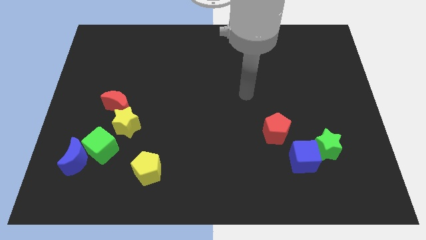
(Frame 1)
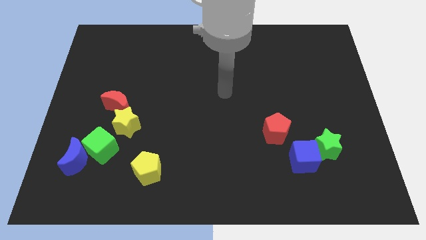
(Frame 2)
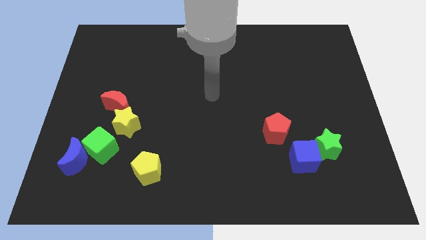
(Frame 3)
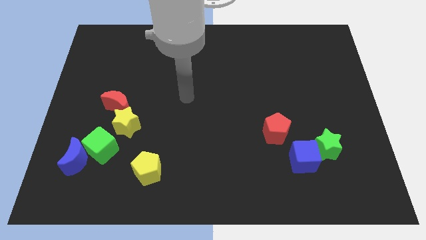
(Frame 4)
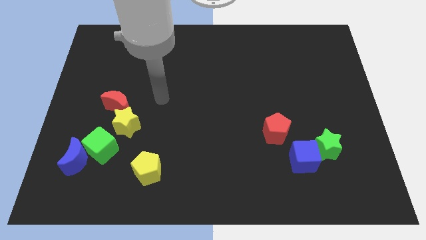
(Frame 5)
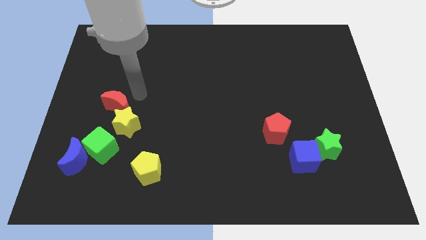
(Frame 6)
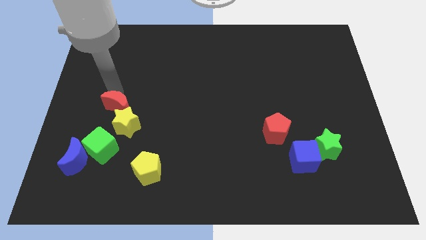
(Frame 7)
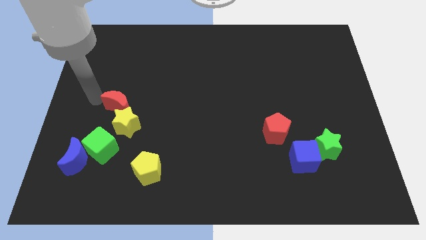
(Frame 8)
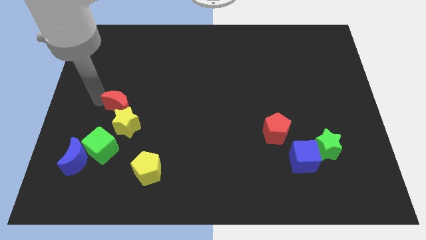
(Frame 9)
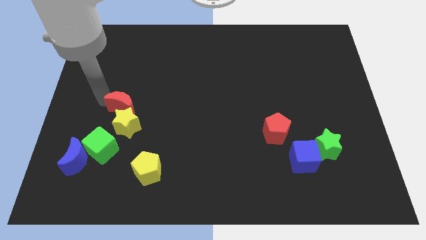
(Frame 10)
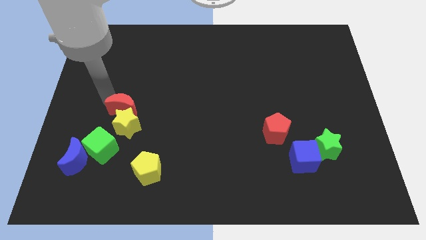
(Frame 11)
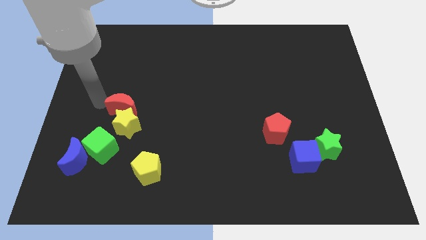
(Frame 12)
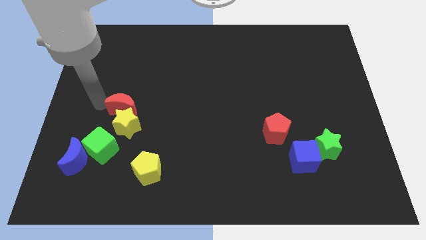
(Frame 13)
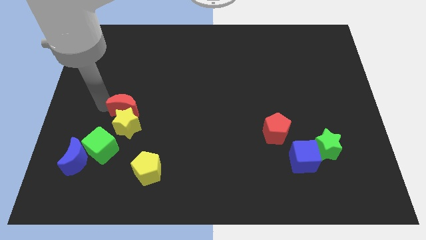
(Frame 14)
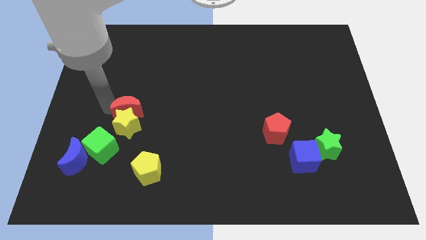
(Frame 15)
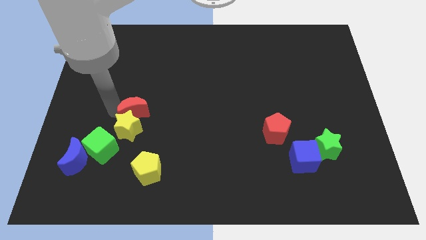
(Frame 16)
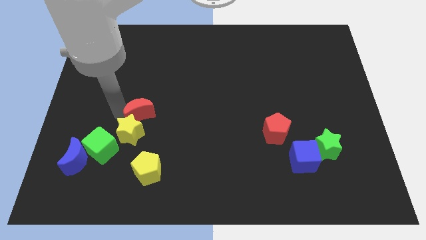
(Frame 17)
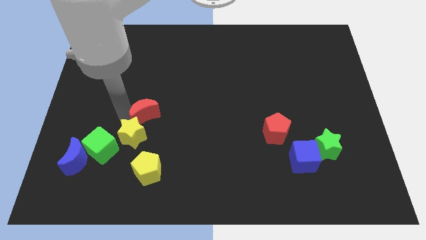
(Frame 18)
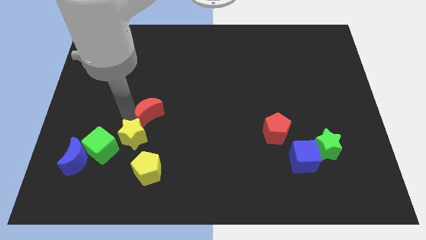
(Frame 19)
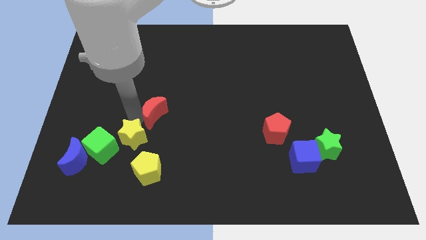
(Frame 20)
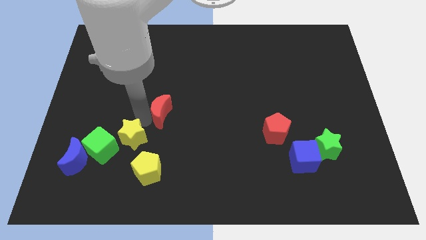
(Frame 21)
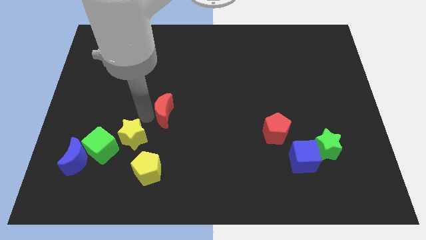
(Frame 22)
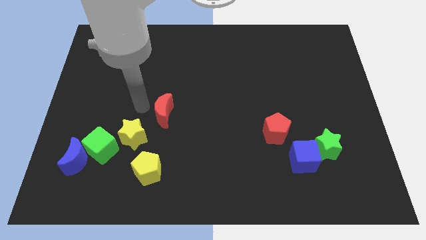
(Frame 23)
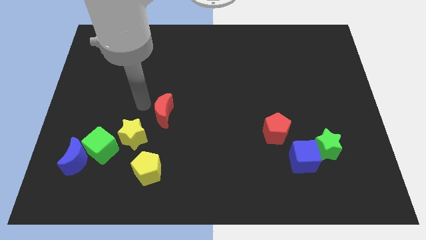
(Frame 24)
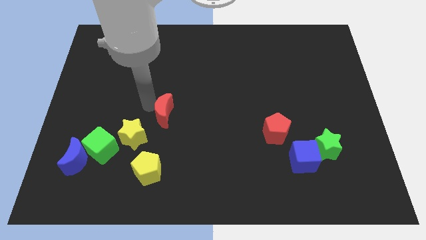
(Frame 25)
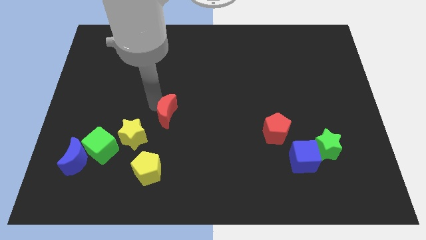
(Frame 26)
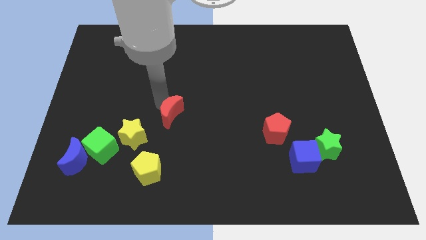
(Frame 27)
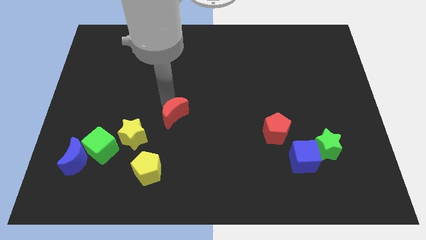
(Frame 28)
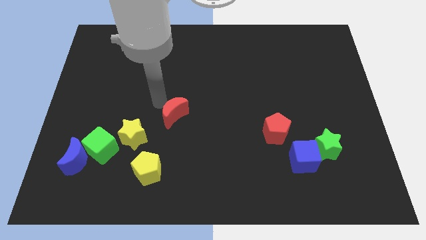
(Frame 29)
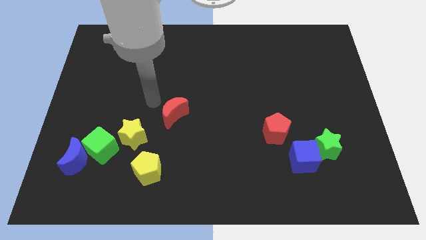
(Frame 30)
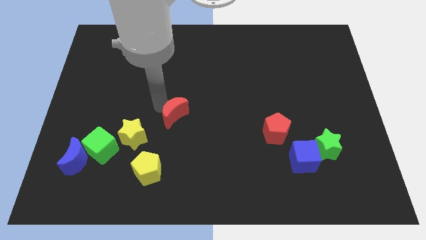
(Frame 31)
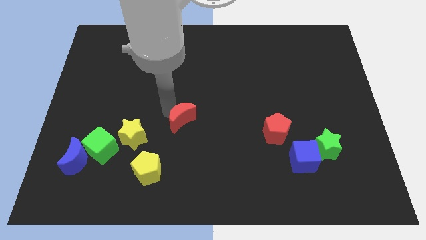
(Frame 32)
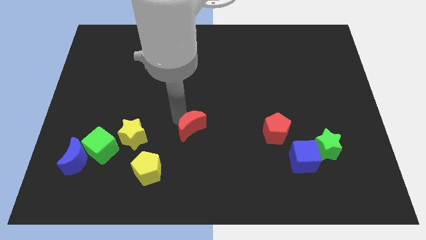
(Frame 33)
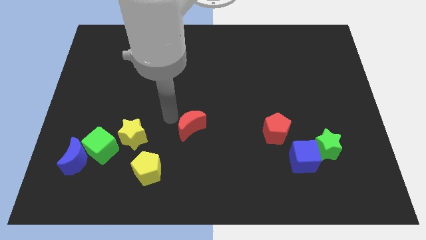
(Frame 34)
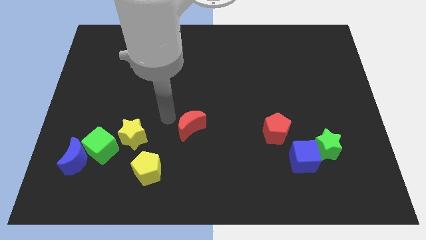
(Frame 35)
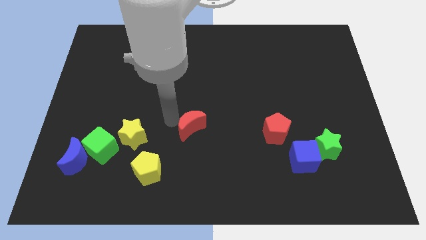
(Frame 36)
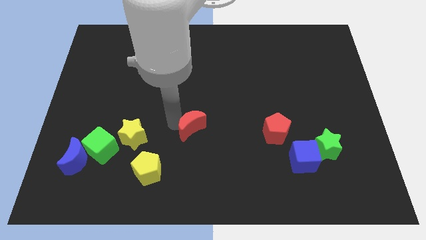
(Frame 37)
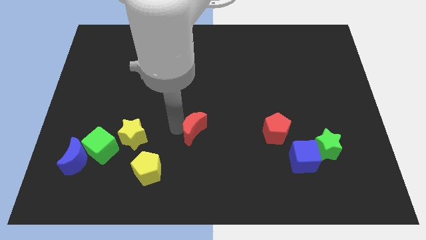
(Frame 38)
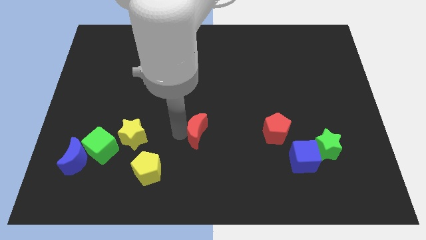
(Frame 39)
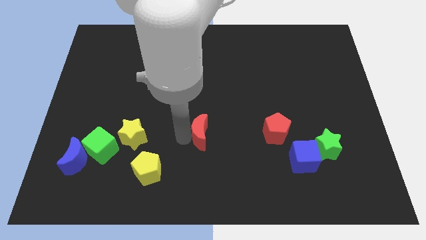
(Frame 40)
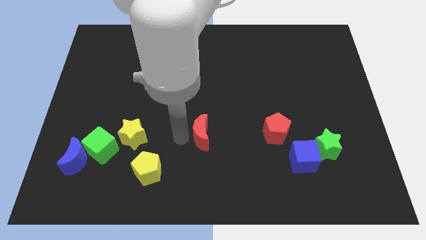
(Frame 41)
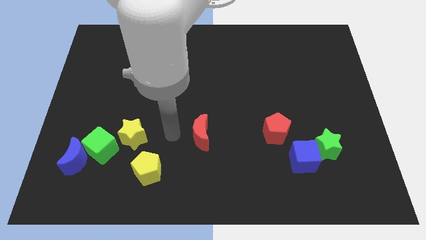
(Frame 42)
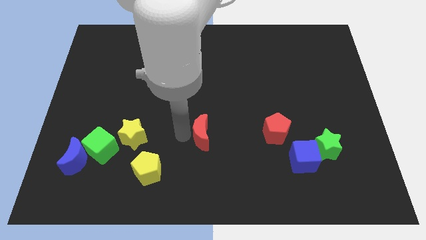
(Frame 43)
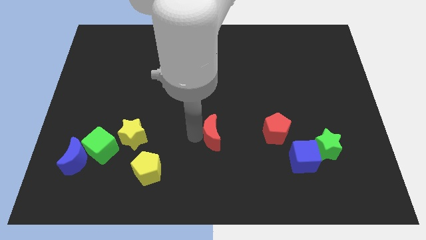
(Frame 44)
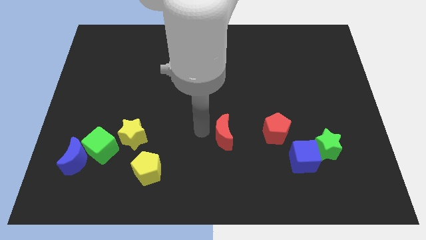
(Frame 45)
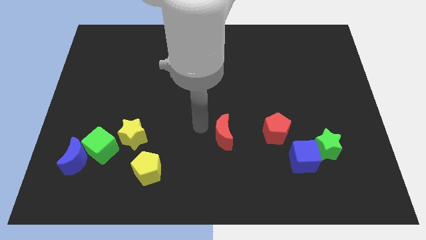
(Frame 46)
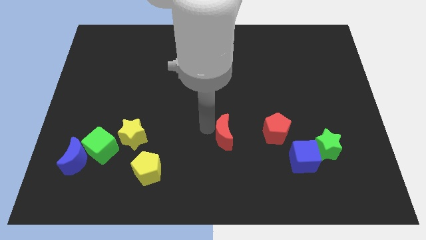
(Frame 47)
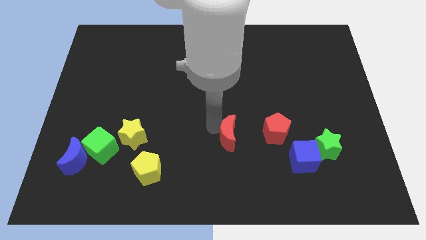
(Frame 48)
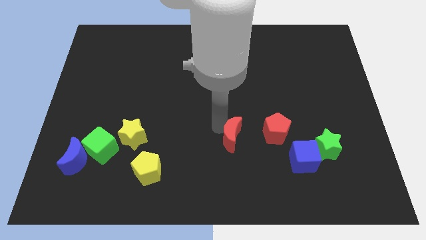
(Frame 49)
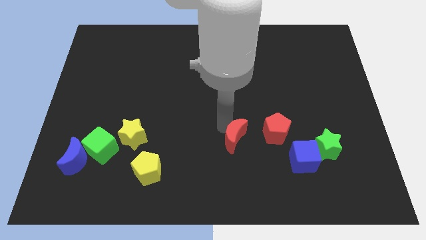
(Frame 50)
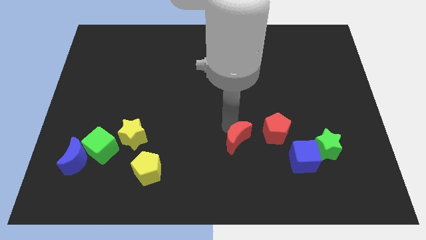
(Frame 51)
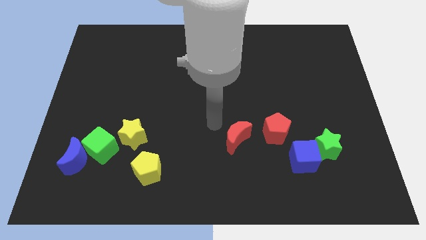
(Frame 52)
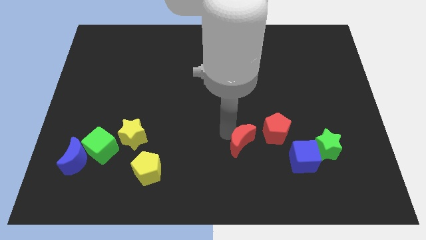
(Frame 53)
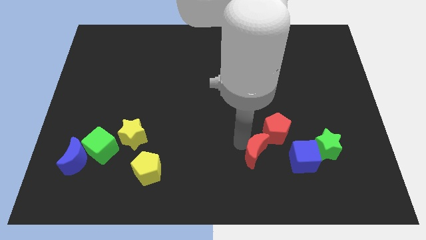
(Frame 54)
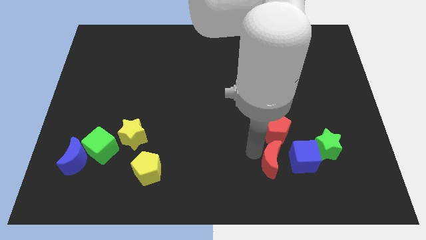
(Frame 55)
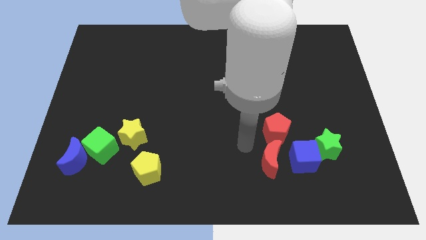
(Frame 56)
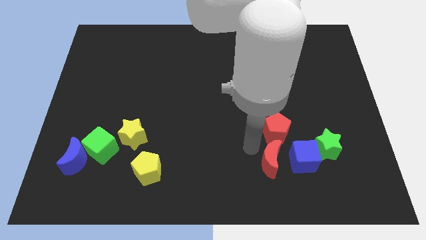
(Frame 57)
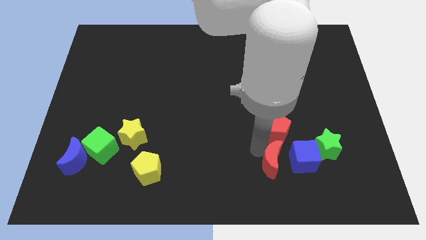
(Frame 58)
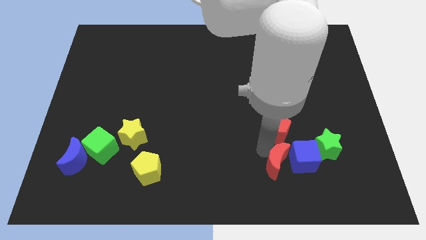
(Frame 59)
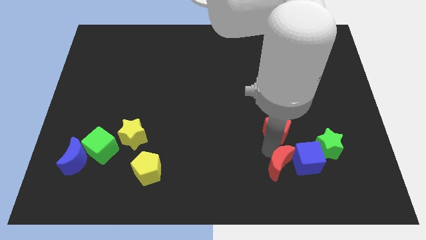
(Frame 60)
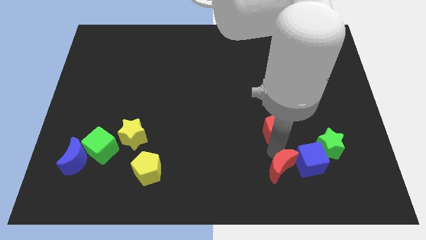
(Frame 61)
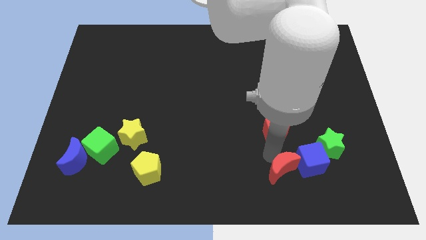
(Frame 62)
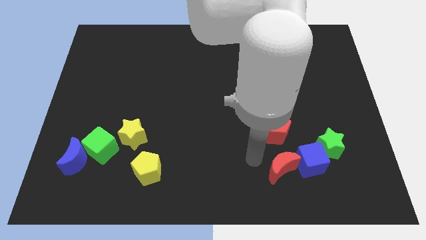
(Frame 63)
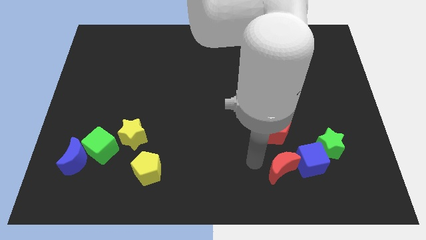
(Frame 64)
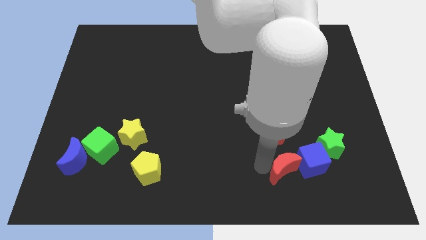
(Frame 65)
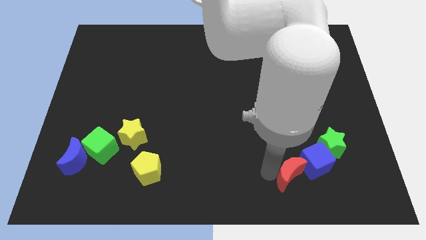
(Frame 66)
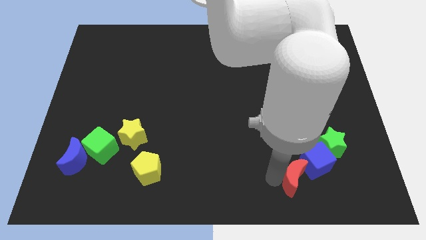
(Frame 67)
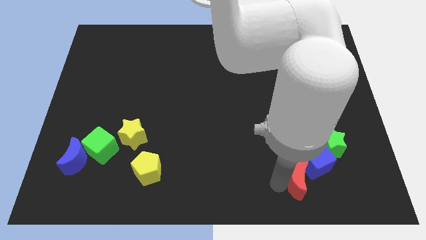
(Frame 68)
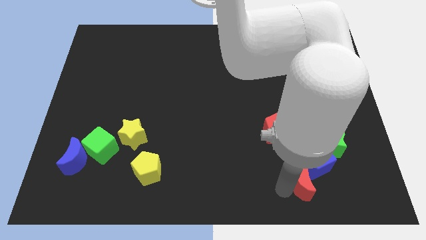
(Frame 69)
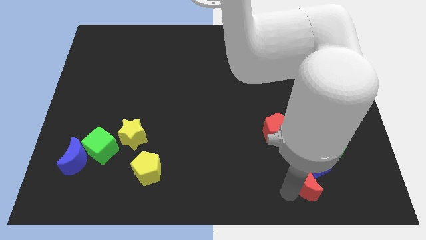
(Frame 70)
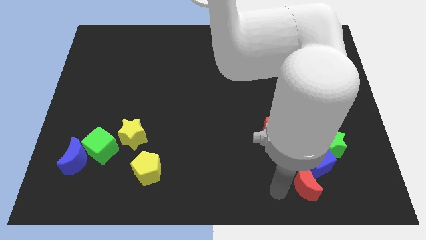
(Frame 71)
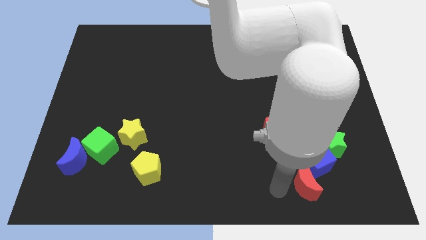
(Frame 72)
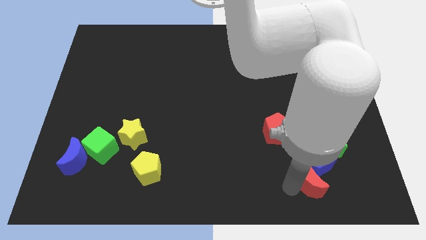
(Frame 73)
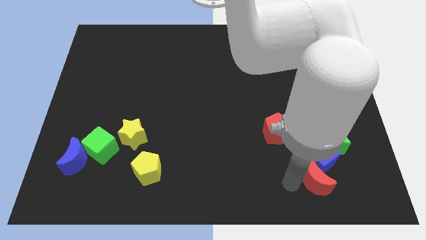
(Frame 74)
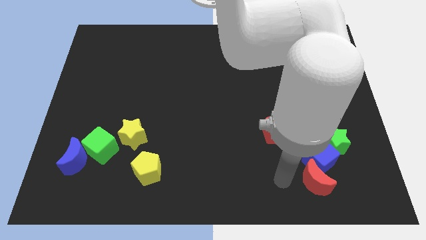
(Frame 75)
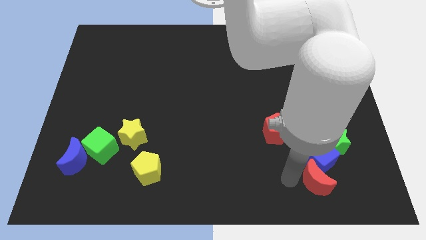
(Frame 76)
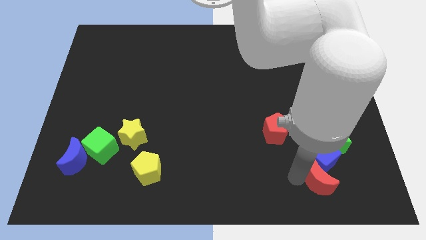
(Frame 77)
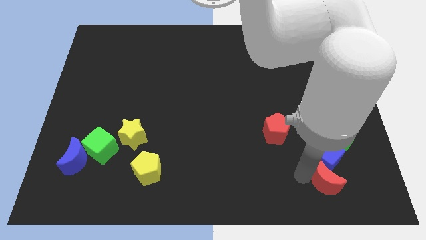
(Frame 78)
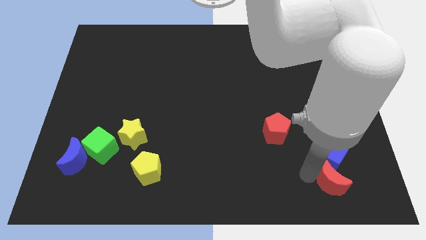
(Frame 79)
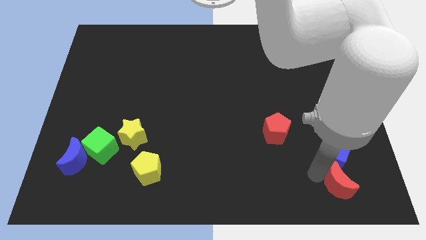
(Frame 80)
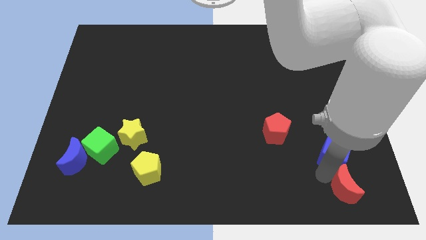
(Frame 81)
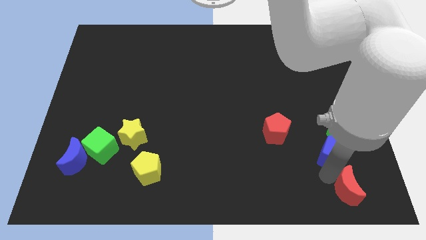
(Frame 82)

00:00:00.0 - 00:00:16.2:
put the red moon to the bottom right
